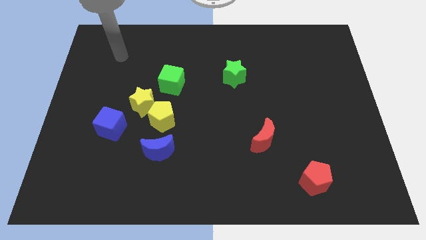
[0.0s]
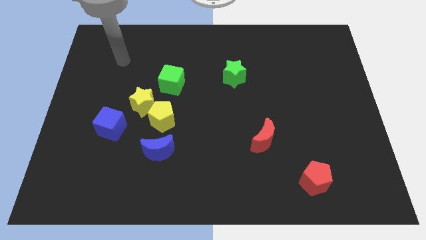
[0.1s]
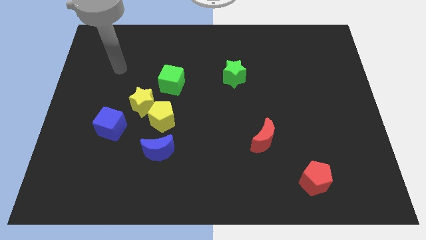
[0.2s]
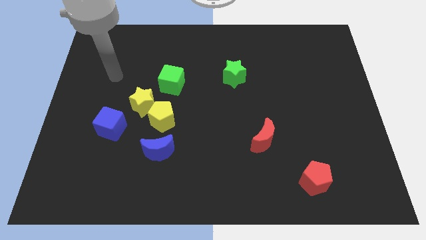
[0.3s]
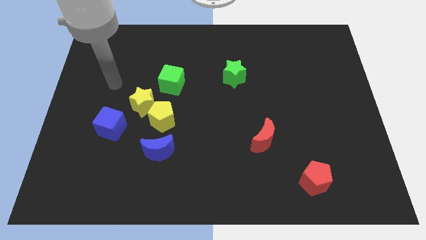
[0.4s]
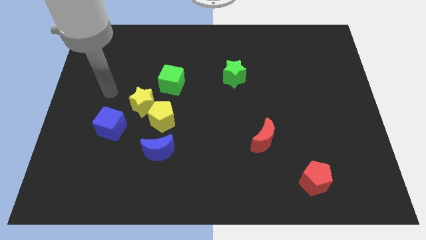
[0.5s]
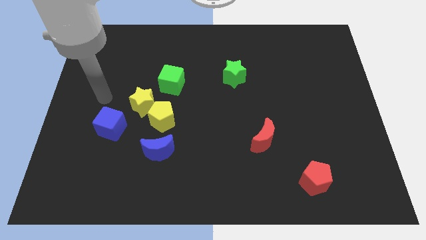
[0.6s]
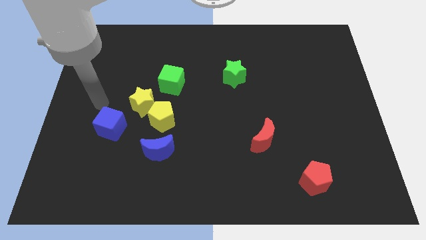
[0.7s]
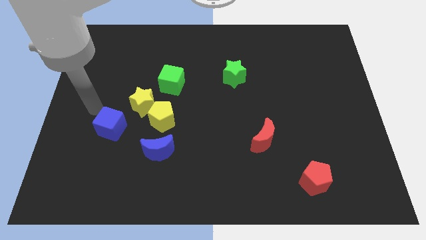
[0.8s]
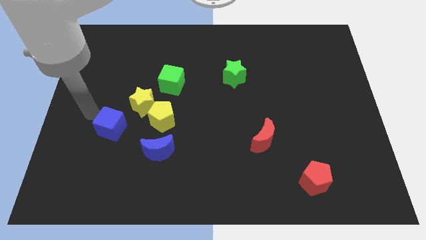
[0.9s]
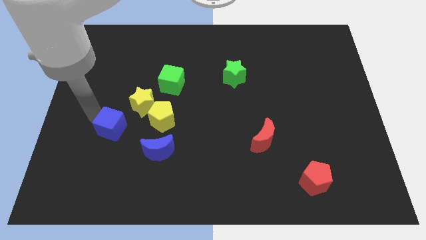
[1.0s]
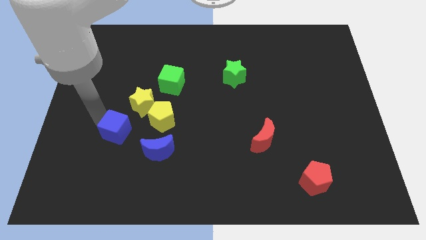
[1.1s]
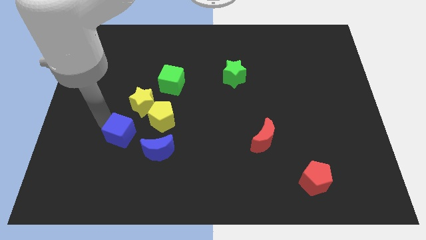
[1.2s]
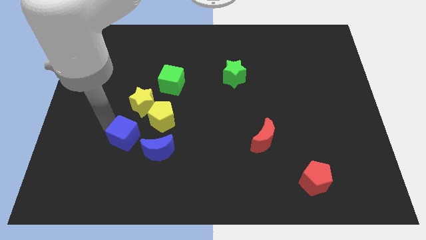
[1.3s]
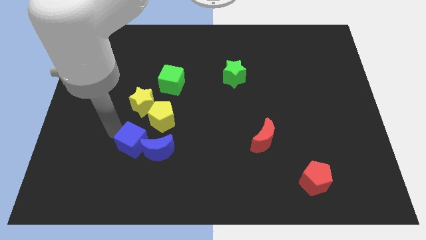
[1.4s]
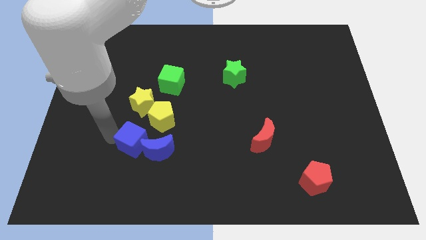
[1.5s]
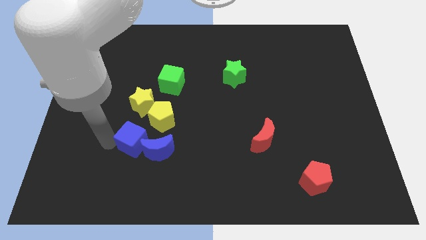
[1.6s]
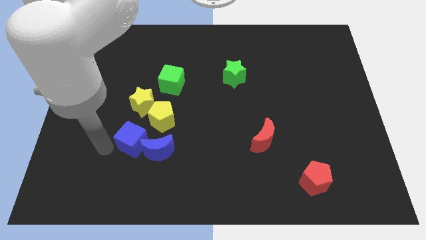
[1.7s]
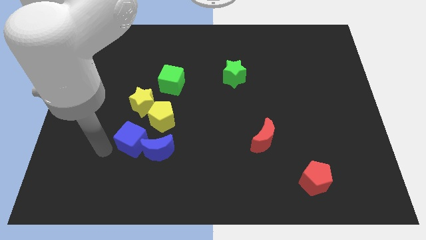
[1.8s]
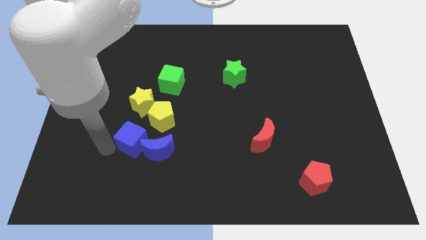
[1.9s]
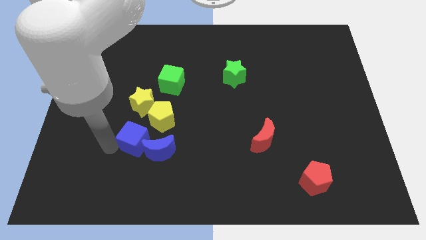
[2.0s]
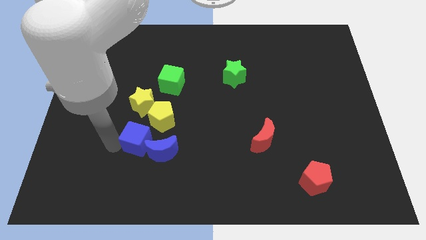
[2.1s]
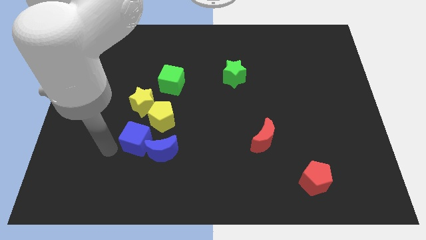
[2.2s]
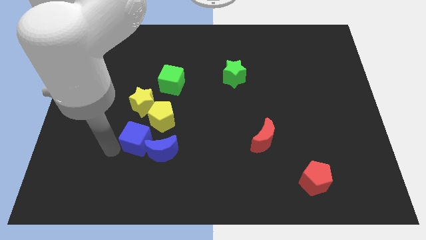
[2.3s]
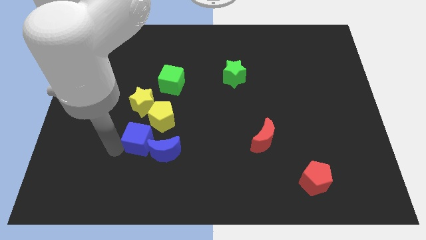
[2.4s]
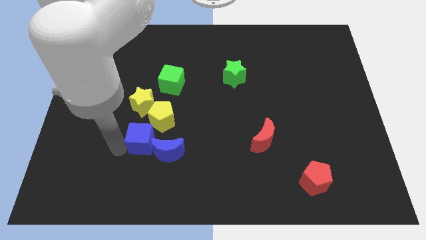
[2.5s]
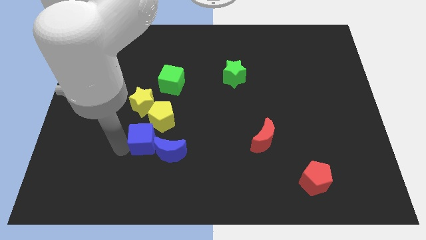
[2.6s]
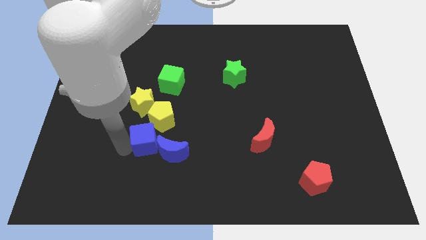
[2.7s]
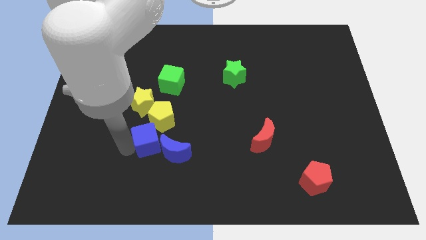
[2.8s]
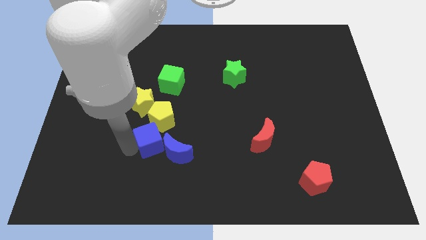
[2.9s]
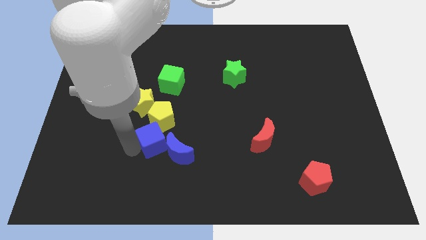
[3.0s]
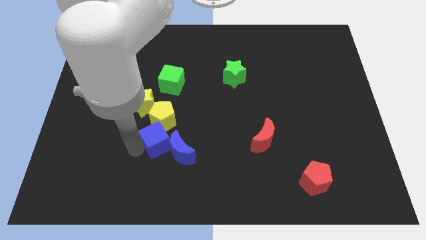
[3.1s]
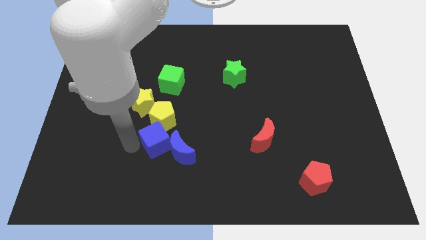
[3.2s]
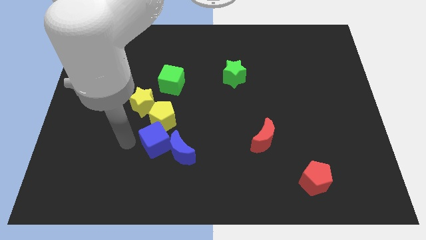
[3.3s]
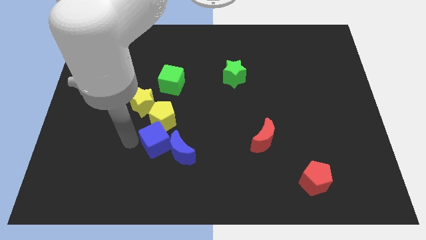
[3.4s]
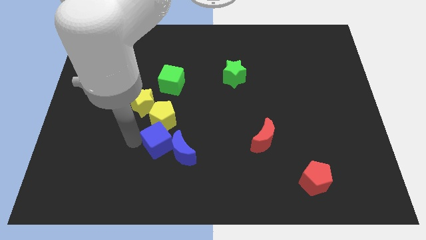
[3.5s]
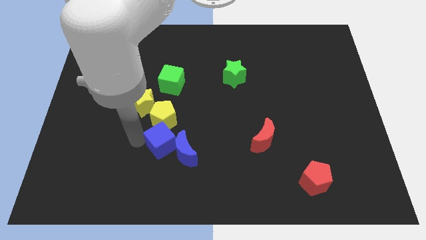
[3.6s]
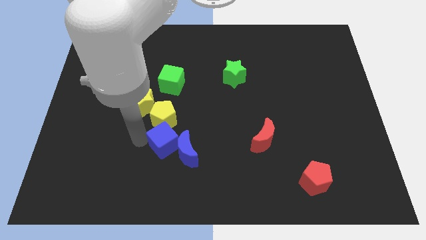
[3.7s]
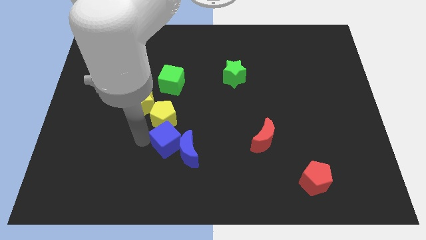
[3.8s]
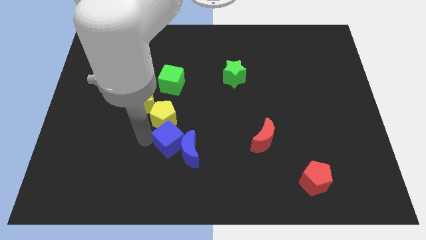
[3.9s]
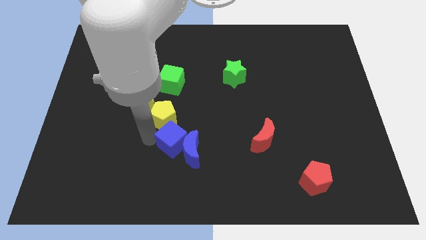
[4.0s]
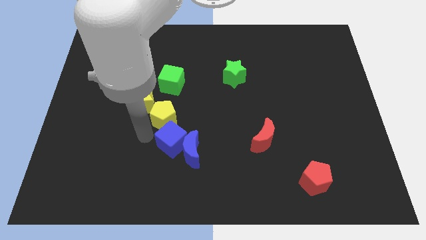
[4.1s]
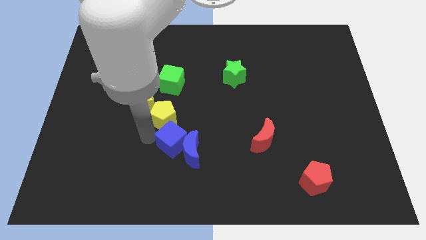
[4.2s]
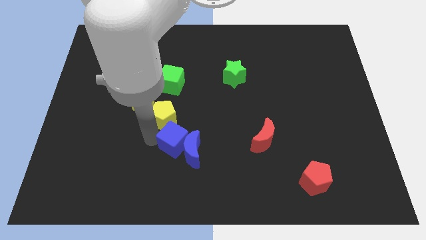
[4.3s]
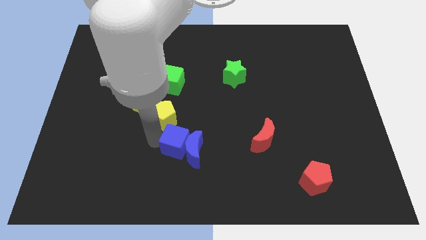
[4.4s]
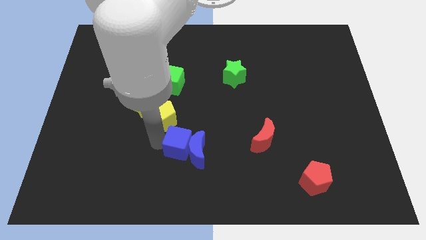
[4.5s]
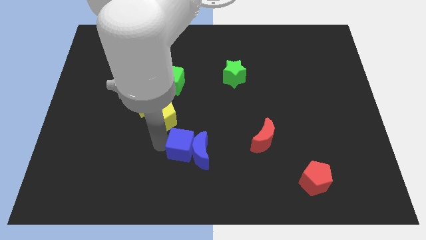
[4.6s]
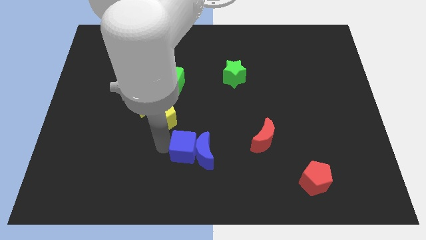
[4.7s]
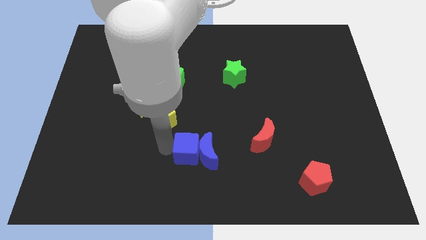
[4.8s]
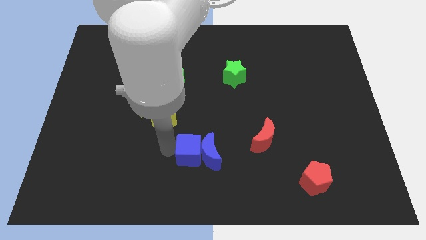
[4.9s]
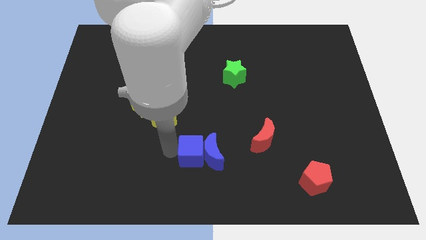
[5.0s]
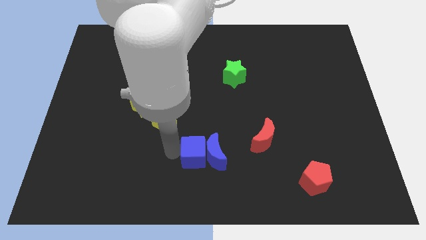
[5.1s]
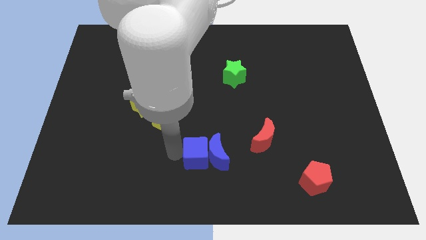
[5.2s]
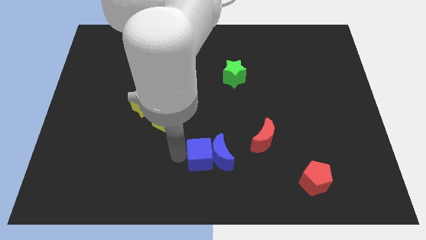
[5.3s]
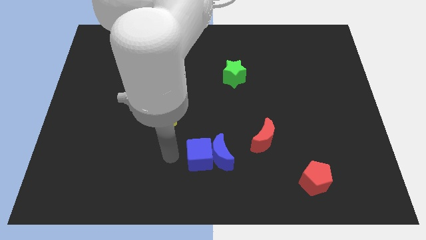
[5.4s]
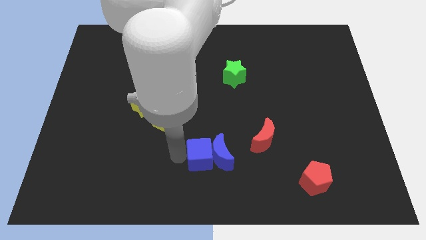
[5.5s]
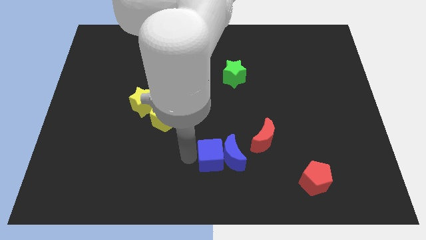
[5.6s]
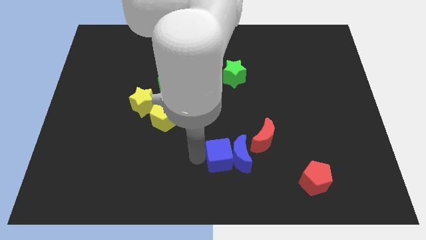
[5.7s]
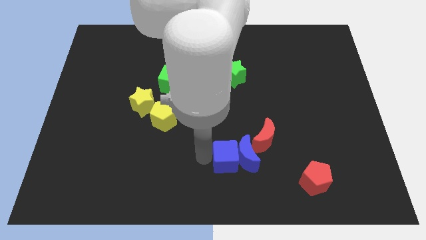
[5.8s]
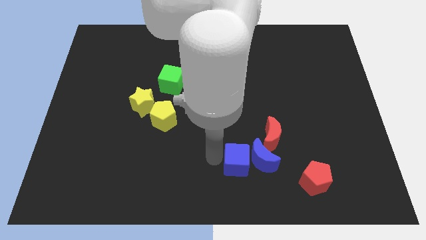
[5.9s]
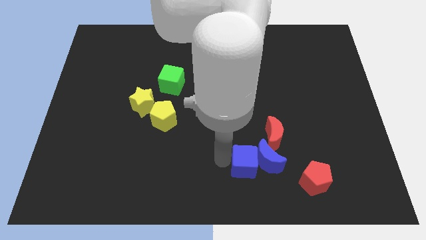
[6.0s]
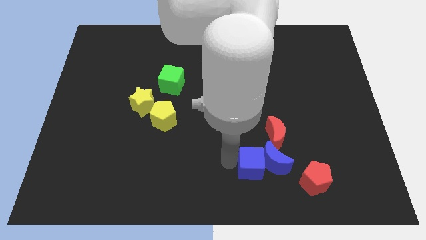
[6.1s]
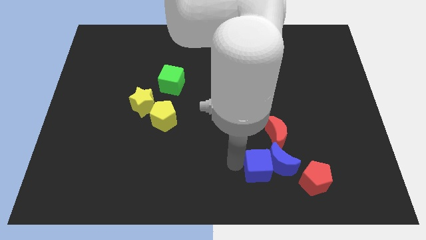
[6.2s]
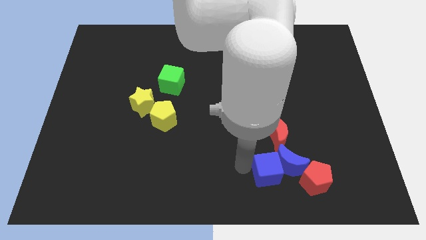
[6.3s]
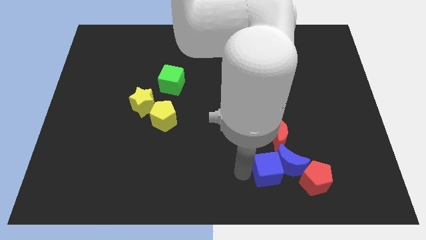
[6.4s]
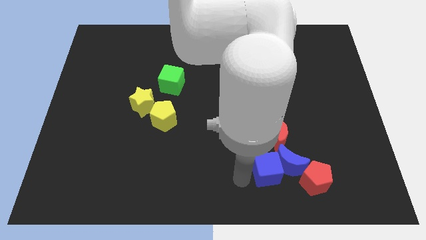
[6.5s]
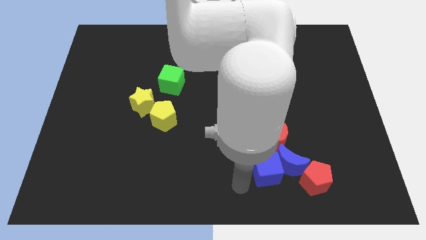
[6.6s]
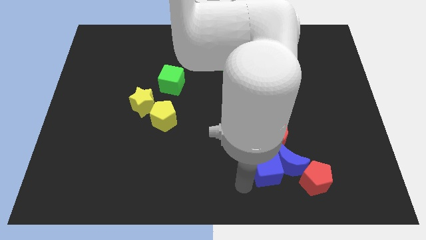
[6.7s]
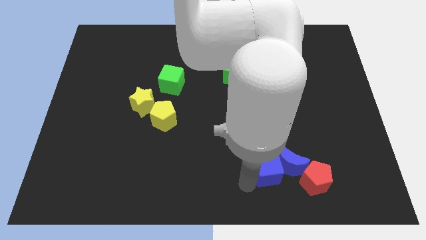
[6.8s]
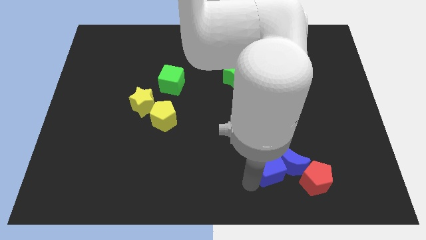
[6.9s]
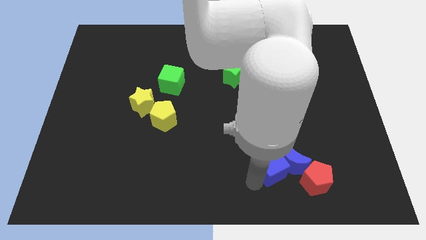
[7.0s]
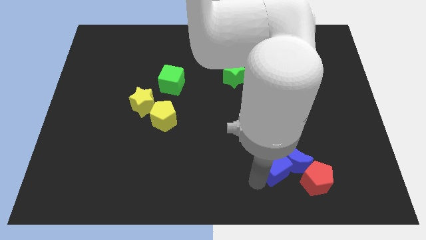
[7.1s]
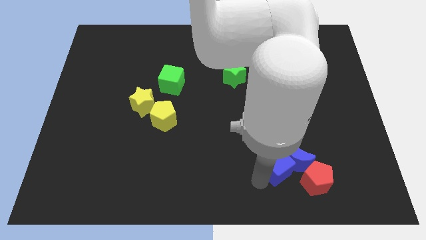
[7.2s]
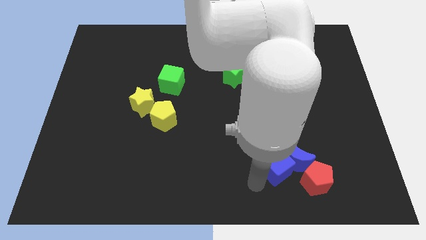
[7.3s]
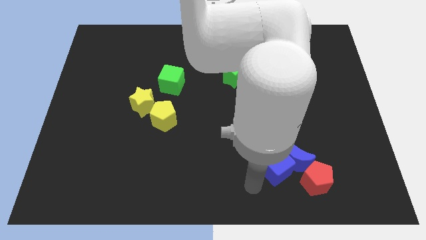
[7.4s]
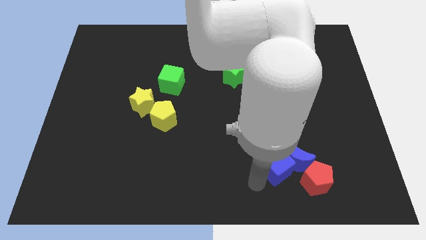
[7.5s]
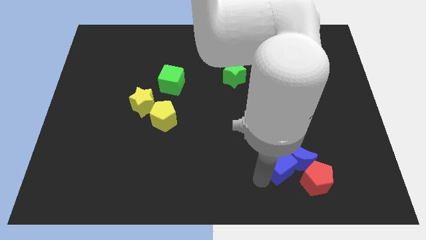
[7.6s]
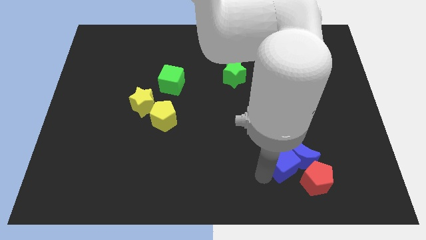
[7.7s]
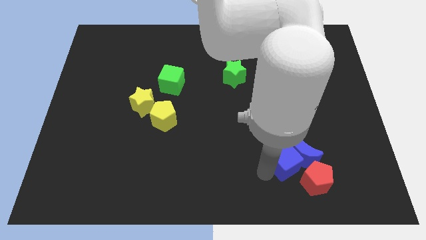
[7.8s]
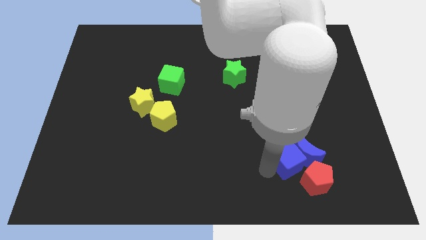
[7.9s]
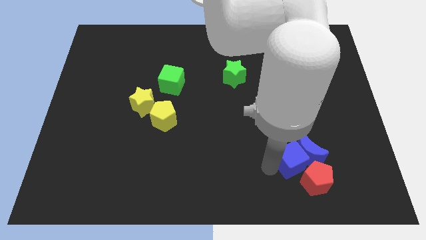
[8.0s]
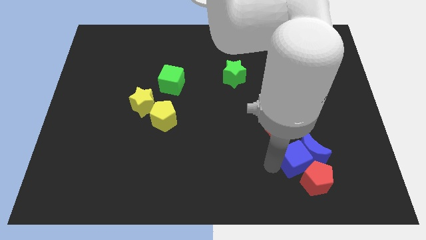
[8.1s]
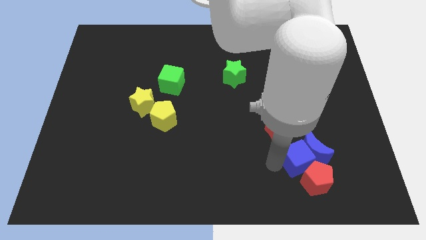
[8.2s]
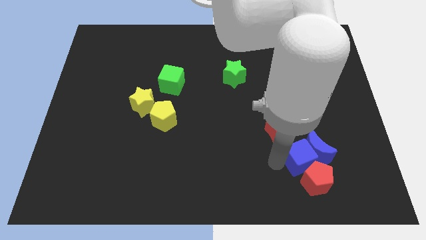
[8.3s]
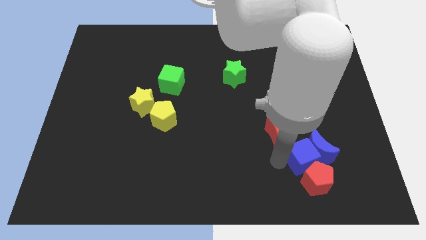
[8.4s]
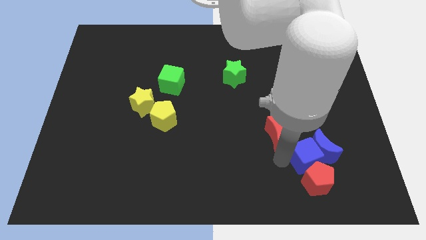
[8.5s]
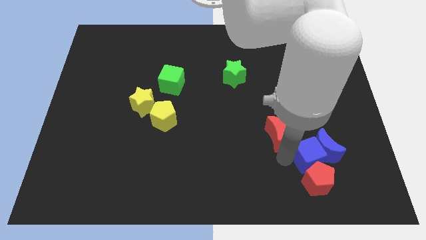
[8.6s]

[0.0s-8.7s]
put the blue cube to the top right side of the red pentagon
